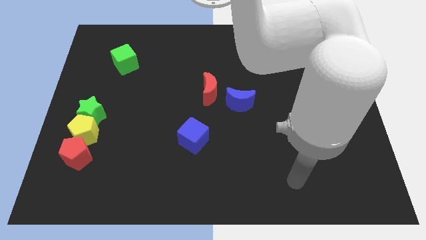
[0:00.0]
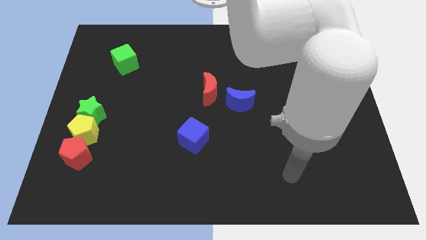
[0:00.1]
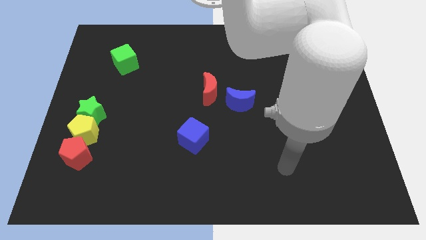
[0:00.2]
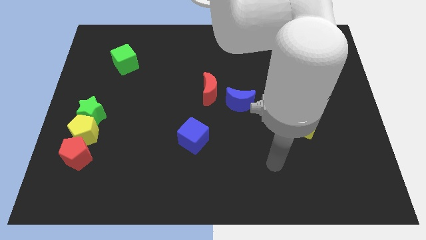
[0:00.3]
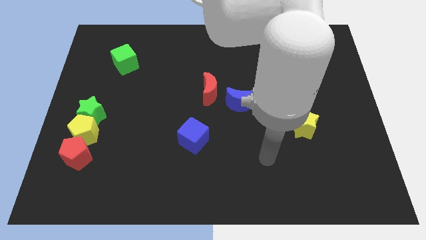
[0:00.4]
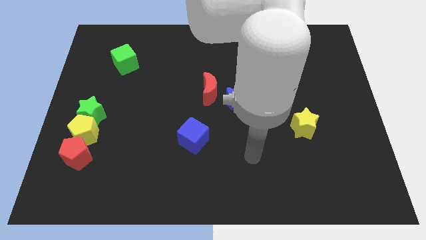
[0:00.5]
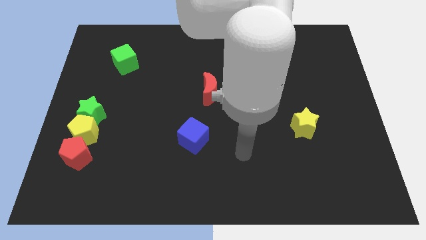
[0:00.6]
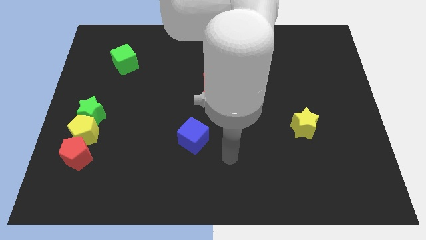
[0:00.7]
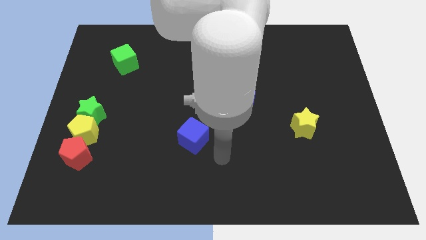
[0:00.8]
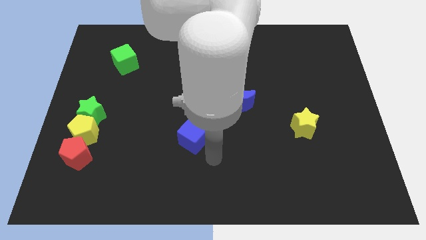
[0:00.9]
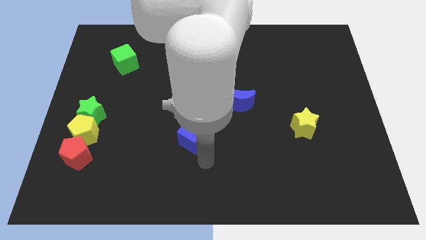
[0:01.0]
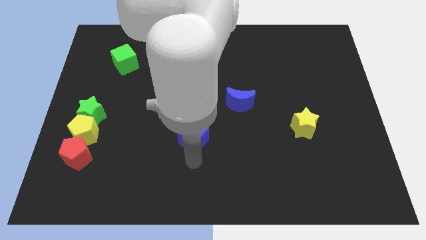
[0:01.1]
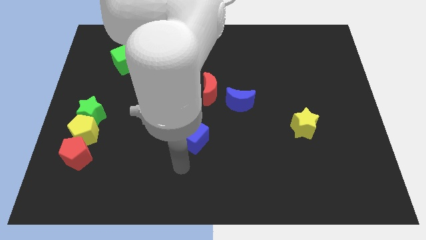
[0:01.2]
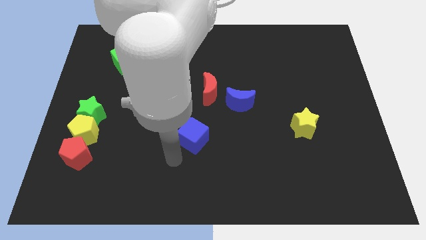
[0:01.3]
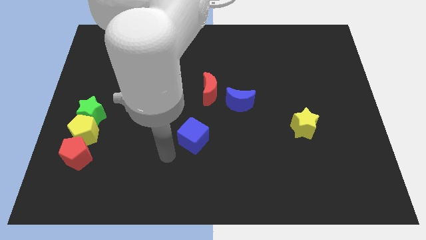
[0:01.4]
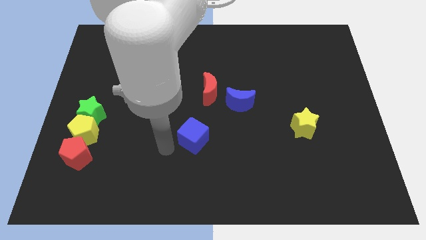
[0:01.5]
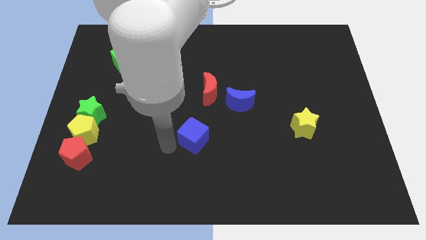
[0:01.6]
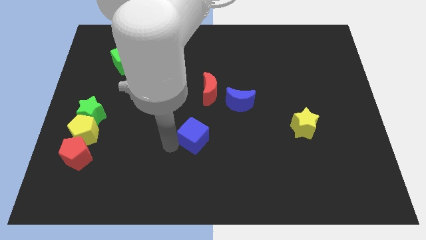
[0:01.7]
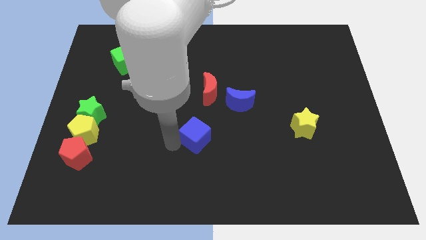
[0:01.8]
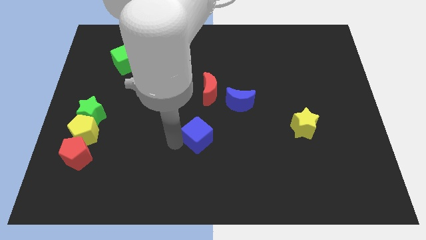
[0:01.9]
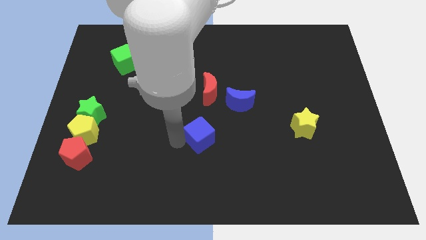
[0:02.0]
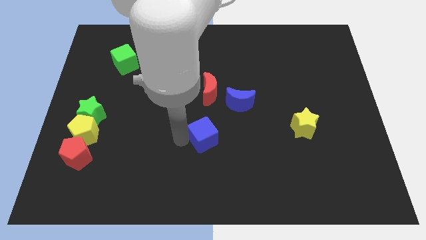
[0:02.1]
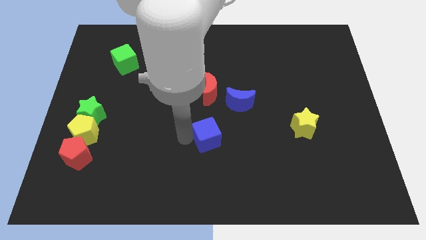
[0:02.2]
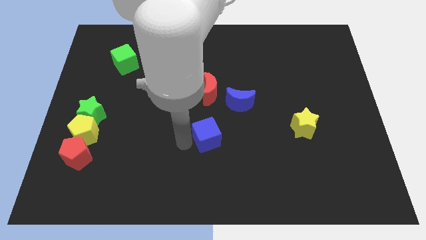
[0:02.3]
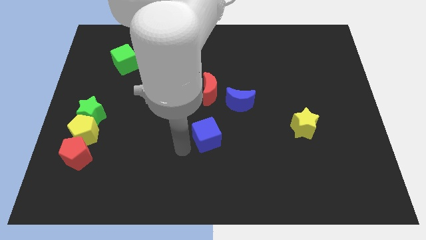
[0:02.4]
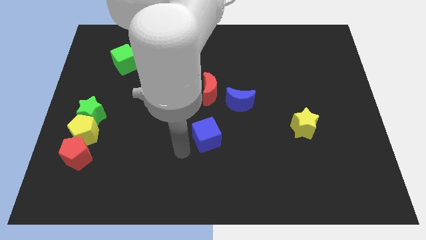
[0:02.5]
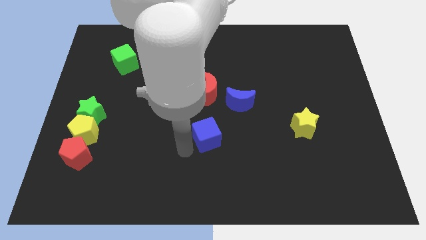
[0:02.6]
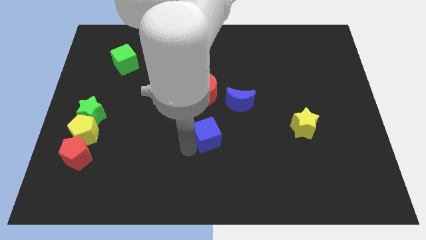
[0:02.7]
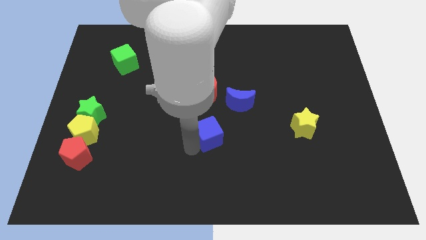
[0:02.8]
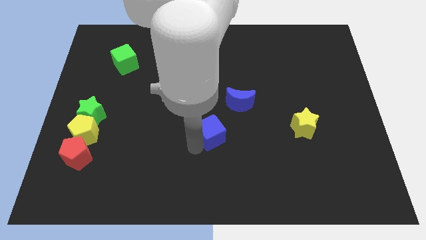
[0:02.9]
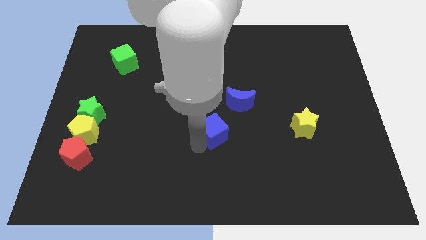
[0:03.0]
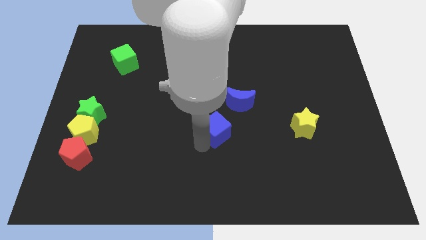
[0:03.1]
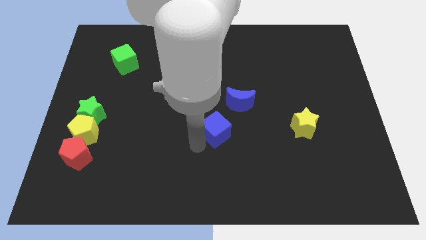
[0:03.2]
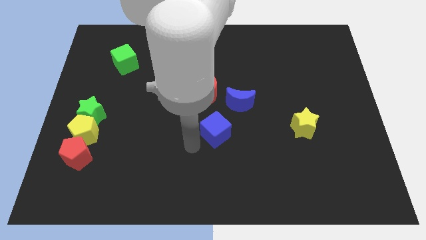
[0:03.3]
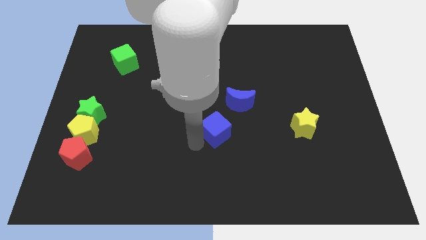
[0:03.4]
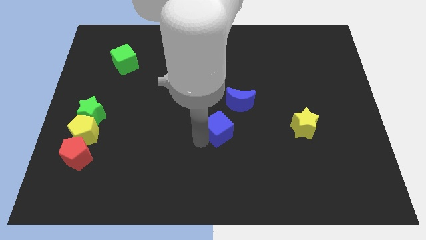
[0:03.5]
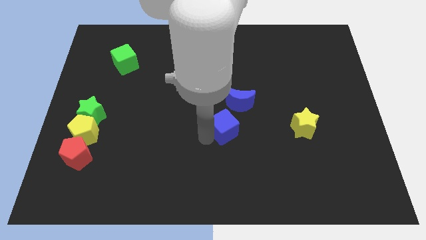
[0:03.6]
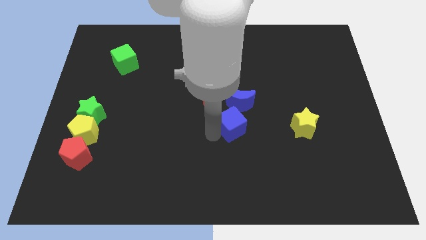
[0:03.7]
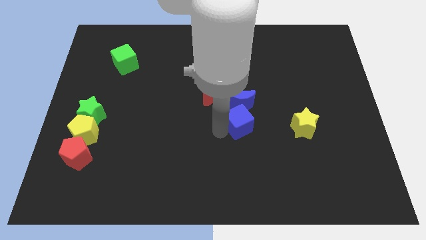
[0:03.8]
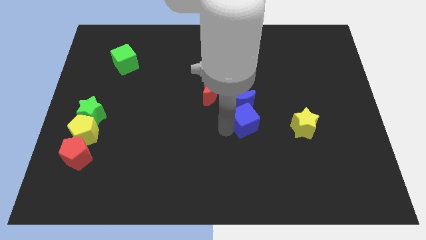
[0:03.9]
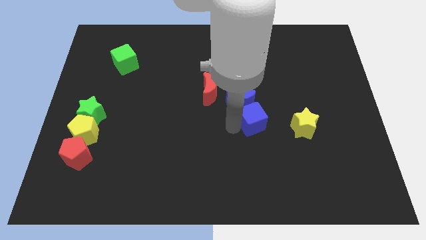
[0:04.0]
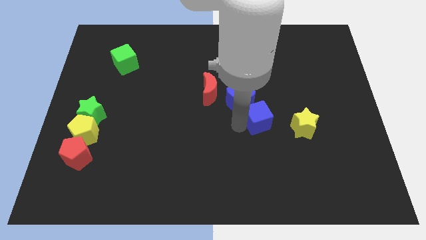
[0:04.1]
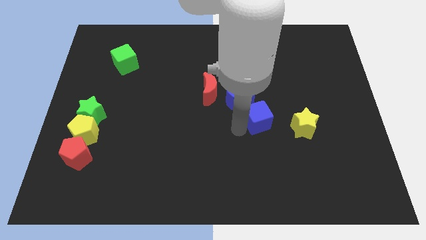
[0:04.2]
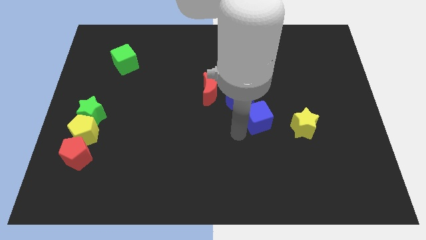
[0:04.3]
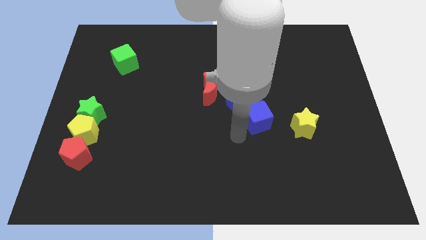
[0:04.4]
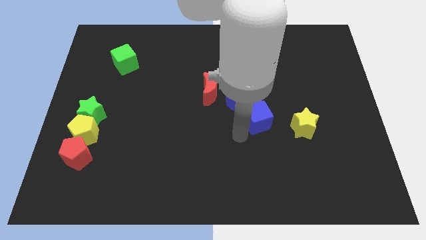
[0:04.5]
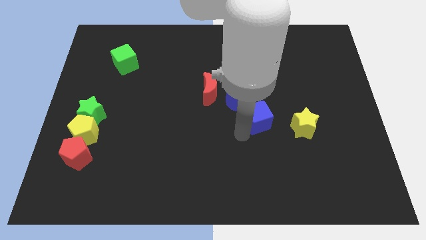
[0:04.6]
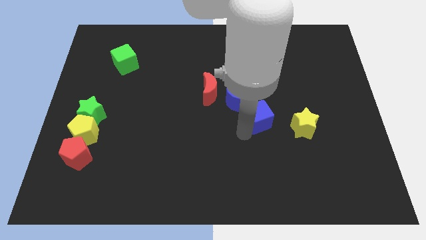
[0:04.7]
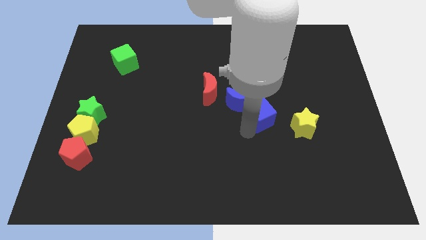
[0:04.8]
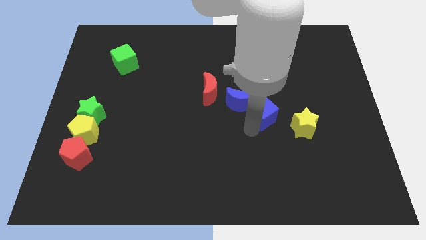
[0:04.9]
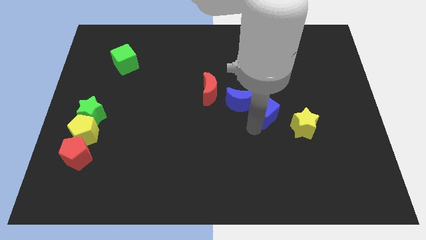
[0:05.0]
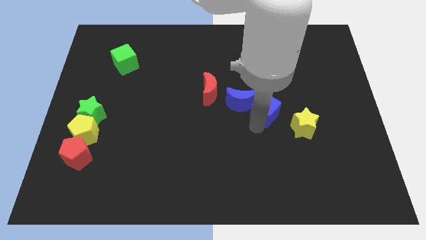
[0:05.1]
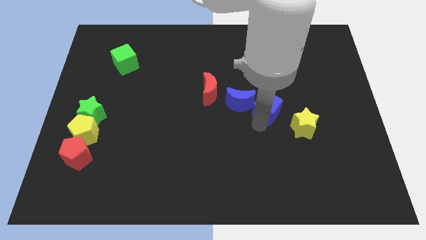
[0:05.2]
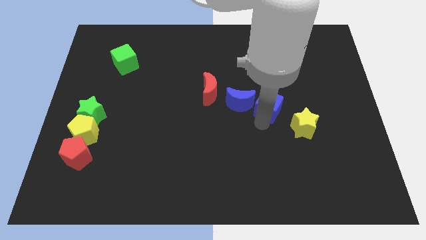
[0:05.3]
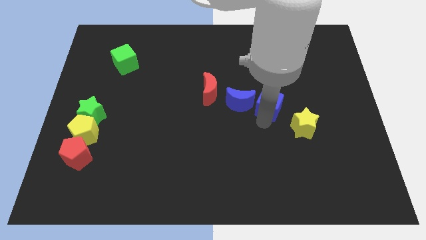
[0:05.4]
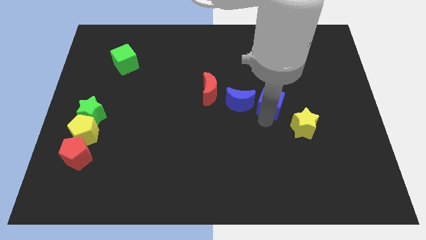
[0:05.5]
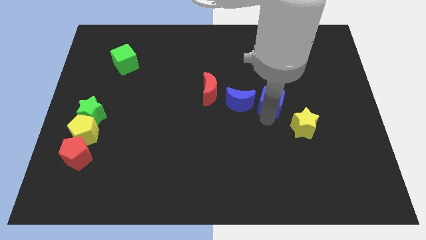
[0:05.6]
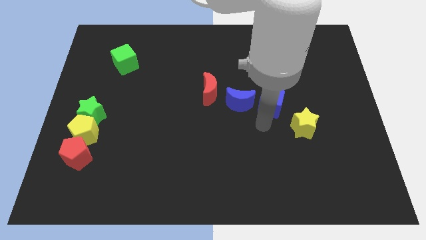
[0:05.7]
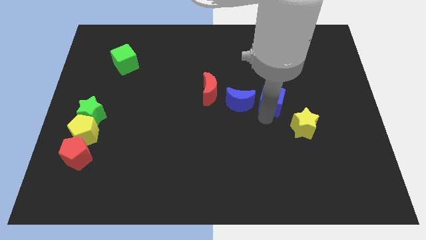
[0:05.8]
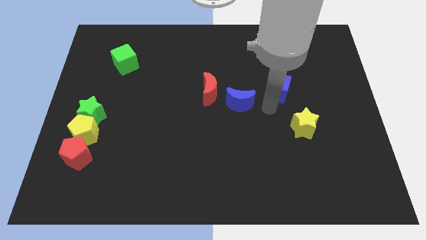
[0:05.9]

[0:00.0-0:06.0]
move the blue cube diagonally up and to the right

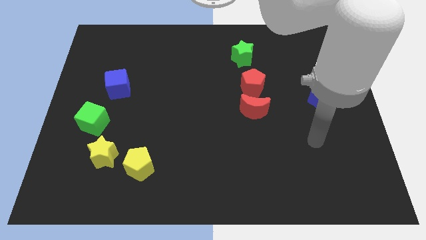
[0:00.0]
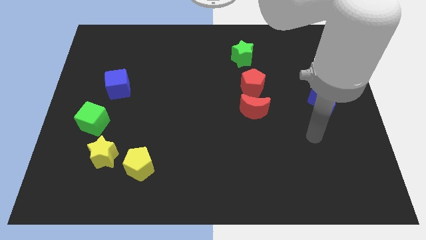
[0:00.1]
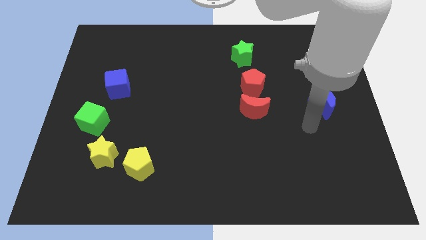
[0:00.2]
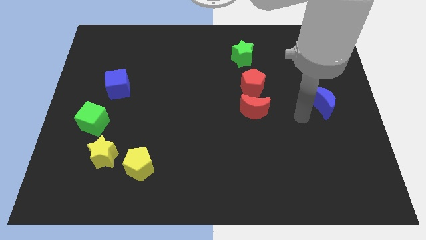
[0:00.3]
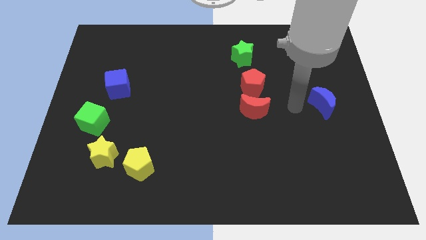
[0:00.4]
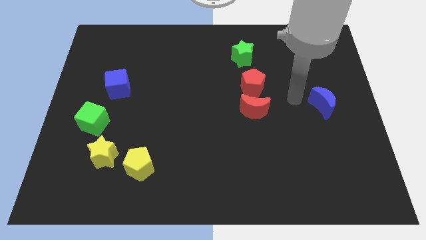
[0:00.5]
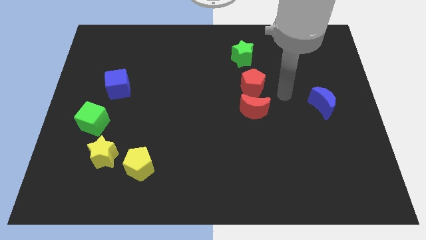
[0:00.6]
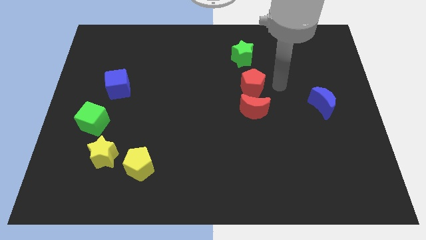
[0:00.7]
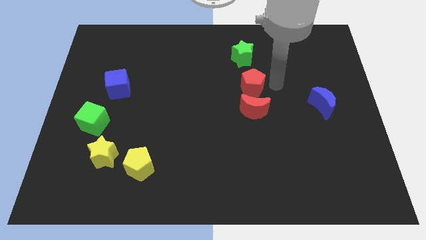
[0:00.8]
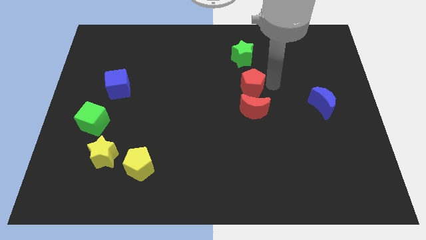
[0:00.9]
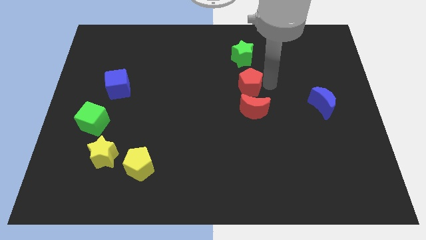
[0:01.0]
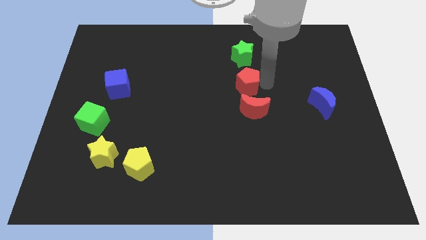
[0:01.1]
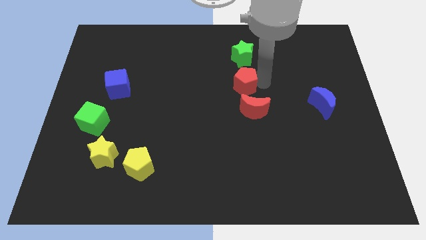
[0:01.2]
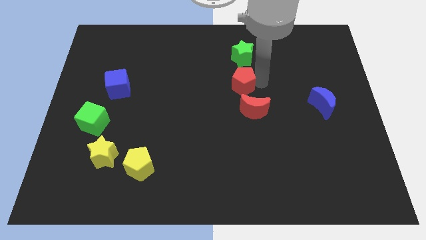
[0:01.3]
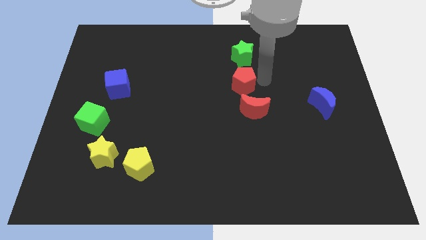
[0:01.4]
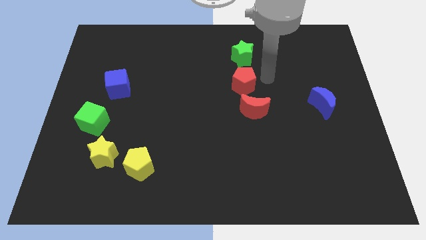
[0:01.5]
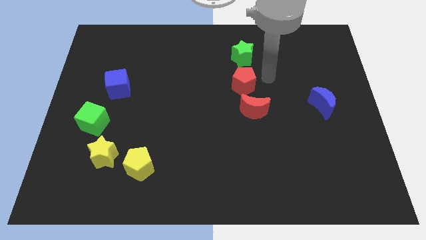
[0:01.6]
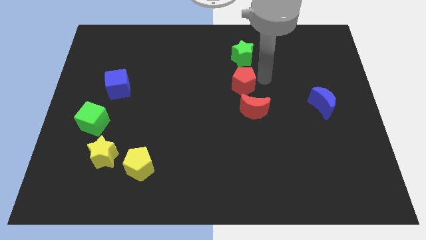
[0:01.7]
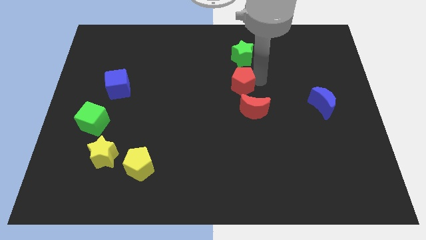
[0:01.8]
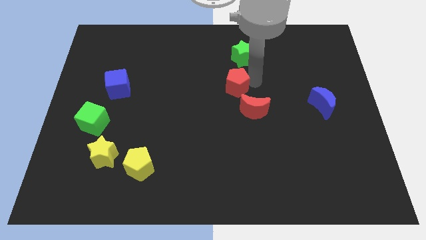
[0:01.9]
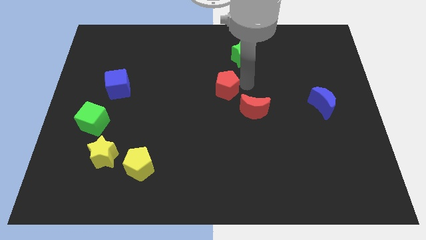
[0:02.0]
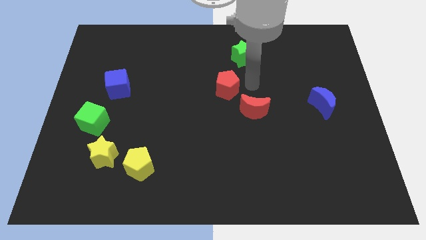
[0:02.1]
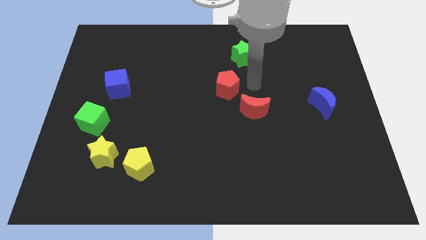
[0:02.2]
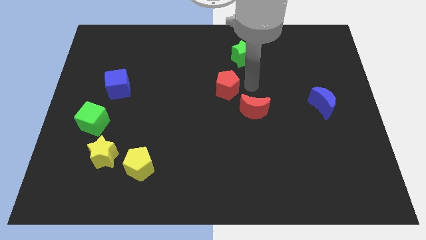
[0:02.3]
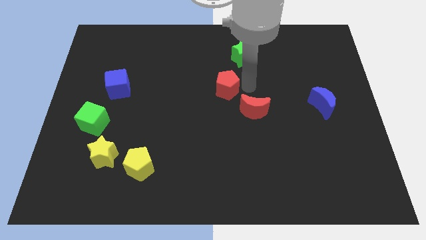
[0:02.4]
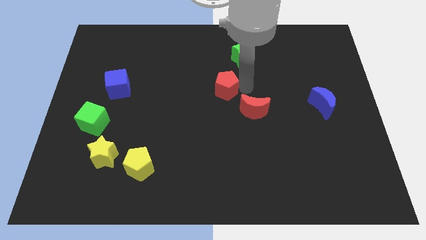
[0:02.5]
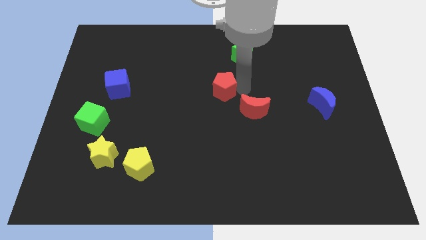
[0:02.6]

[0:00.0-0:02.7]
slightly move the red pentagon to the left
